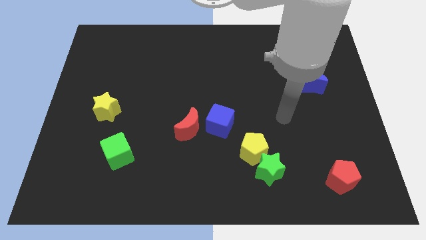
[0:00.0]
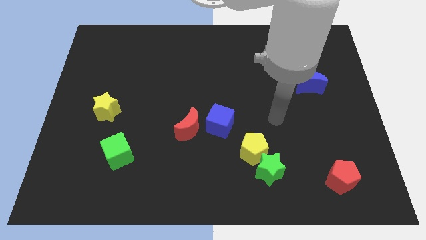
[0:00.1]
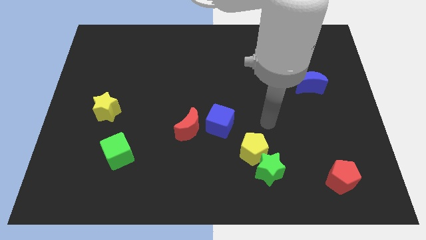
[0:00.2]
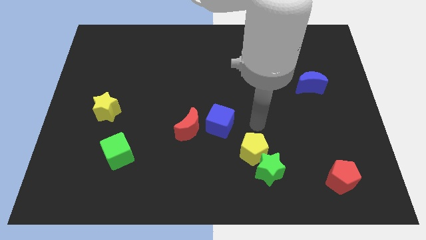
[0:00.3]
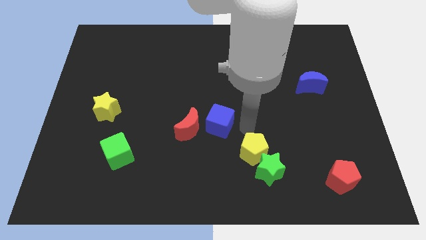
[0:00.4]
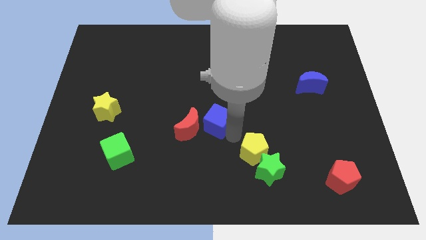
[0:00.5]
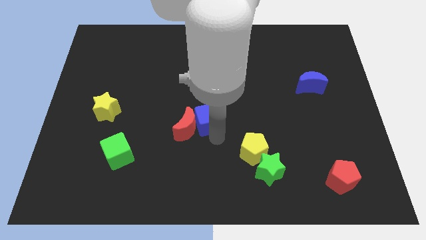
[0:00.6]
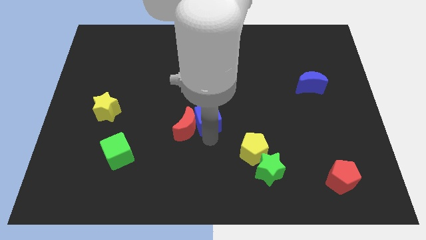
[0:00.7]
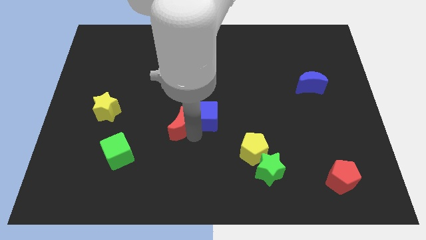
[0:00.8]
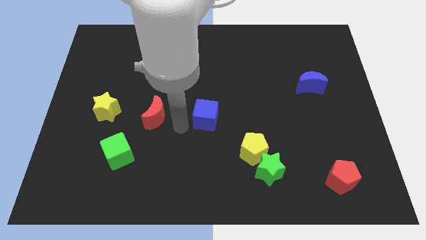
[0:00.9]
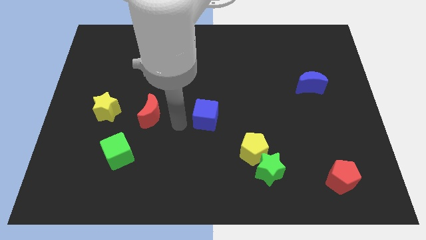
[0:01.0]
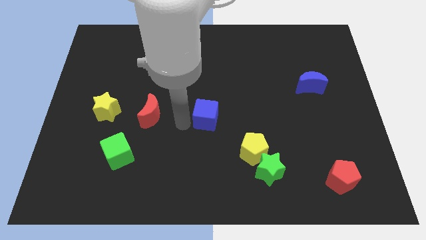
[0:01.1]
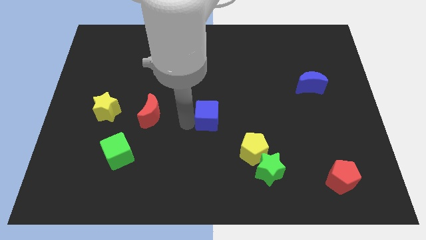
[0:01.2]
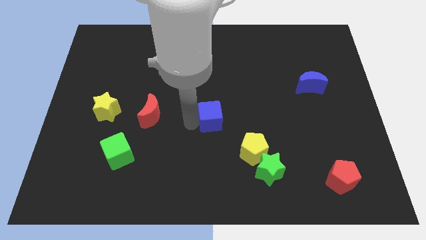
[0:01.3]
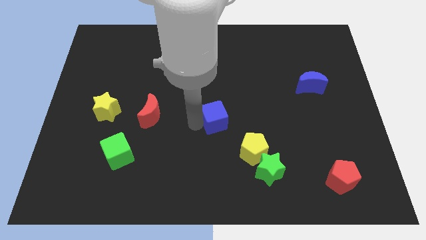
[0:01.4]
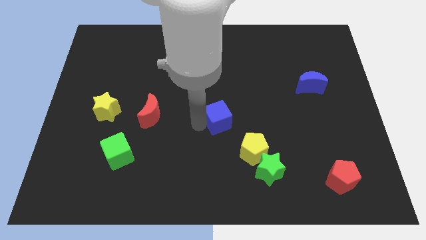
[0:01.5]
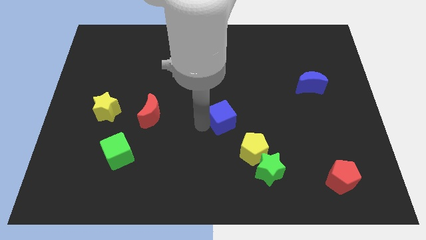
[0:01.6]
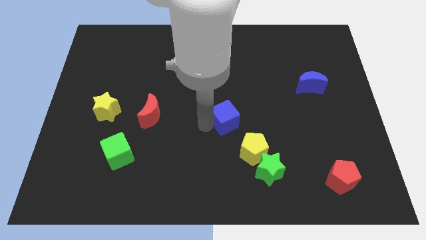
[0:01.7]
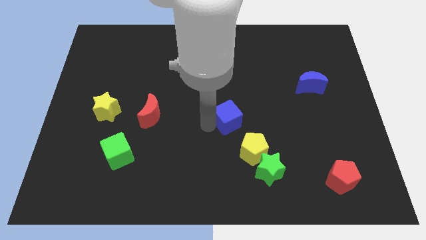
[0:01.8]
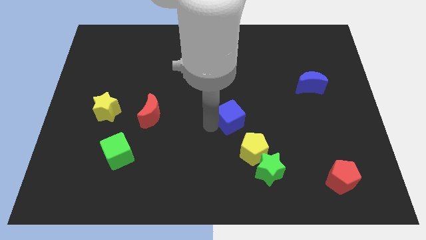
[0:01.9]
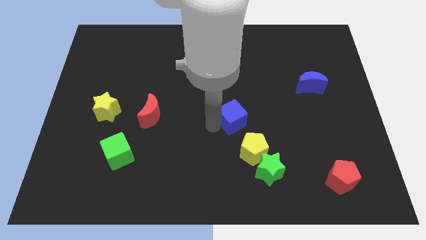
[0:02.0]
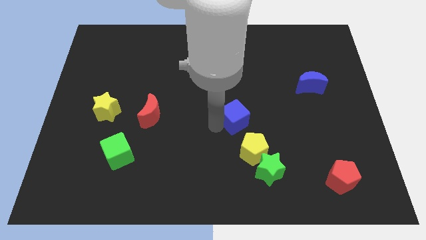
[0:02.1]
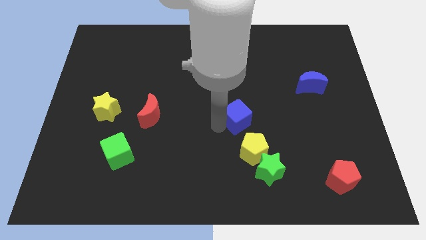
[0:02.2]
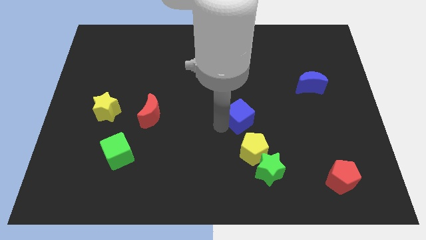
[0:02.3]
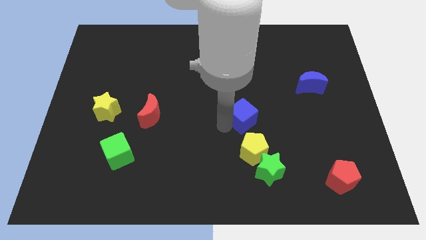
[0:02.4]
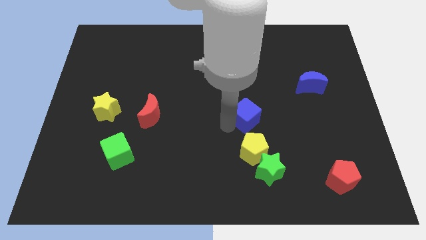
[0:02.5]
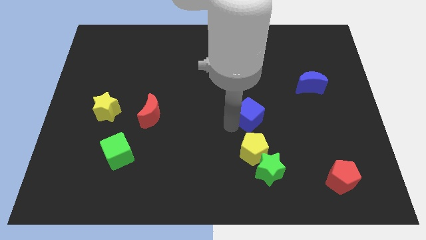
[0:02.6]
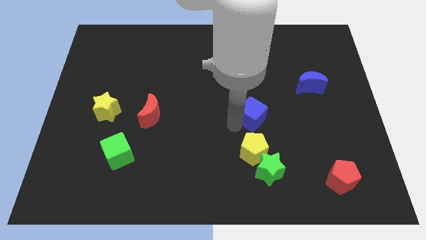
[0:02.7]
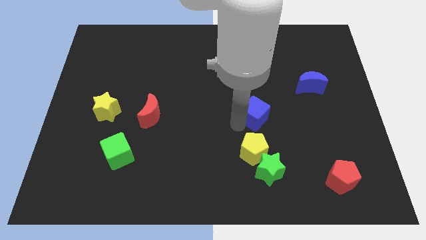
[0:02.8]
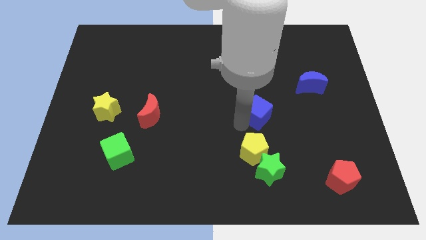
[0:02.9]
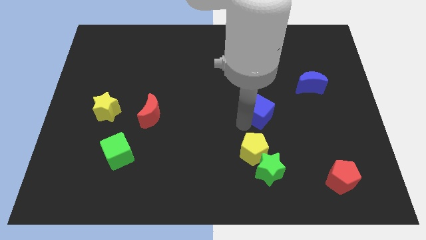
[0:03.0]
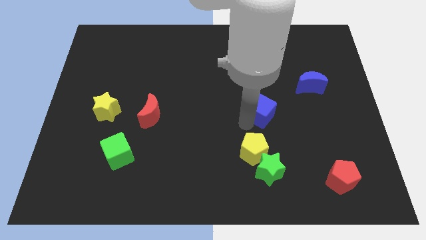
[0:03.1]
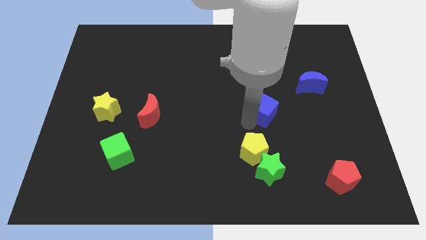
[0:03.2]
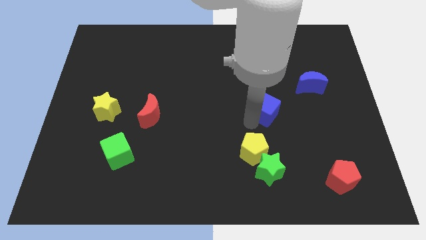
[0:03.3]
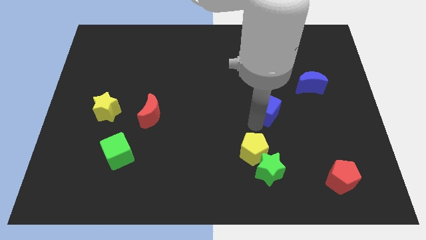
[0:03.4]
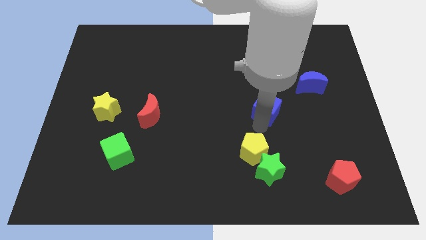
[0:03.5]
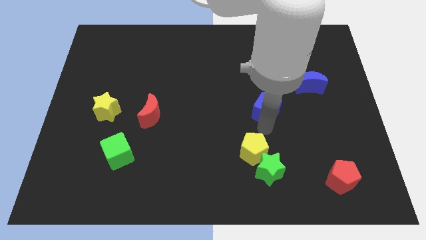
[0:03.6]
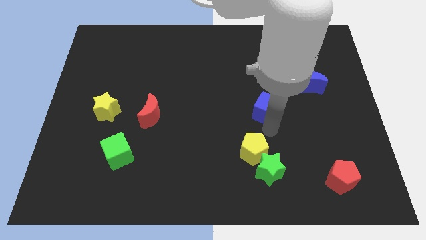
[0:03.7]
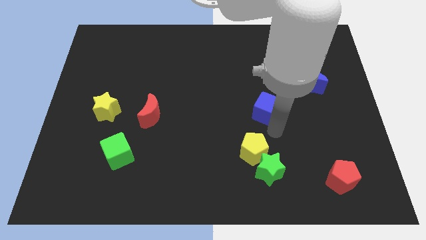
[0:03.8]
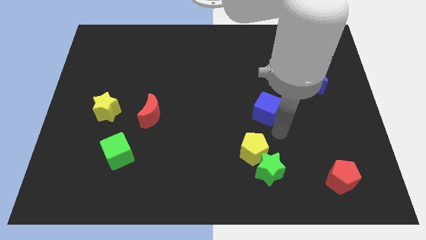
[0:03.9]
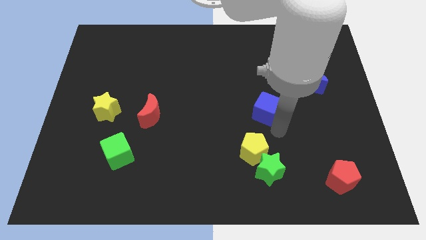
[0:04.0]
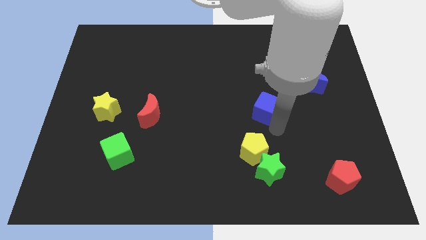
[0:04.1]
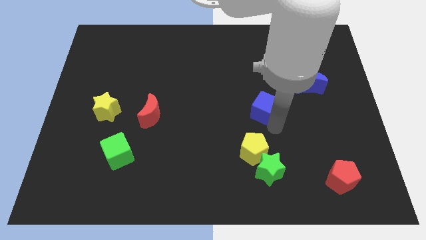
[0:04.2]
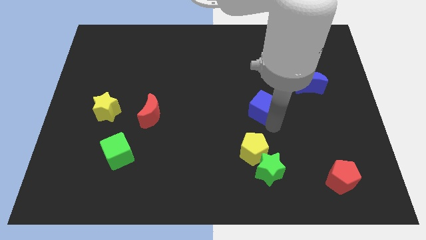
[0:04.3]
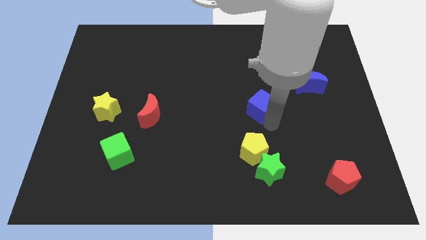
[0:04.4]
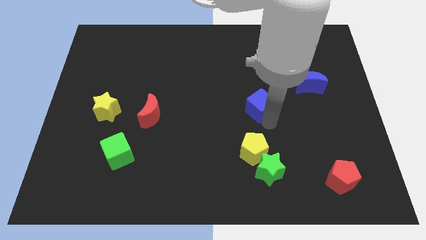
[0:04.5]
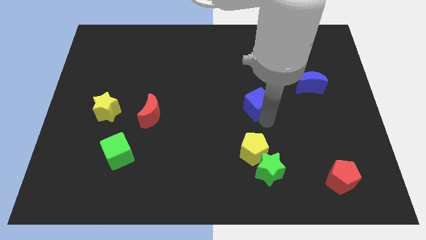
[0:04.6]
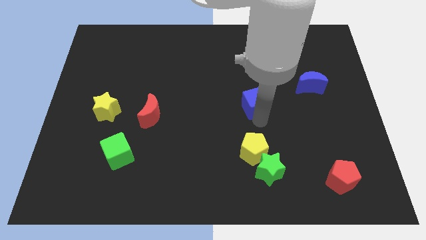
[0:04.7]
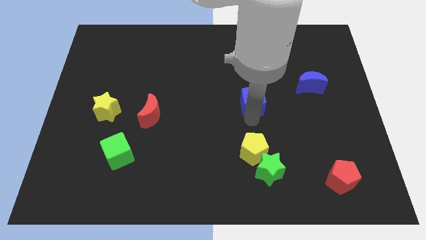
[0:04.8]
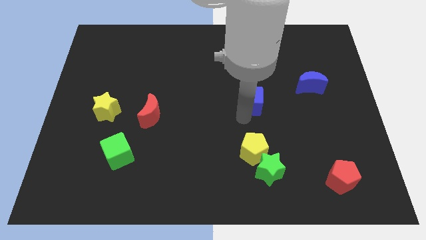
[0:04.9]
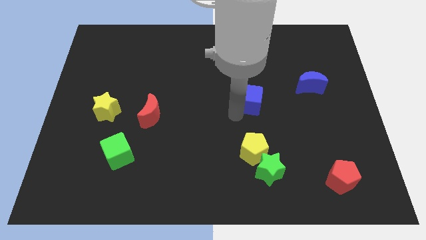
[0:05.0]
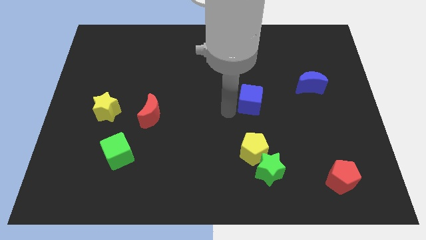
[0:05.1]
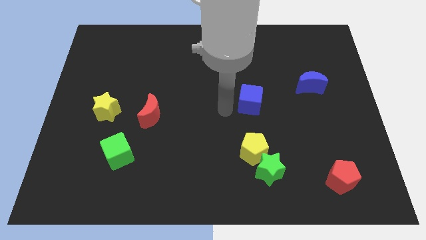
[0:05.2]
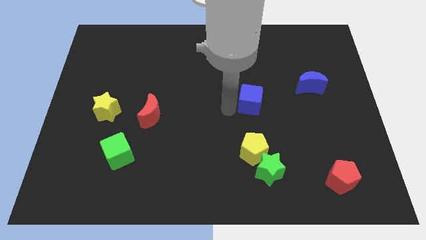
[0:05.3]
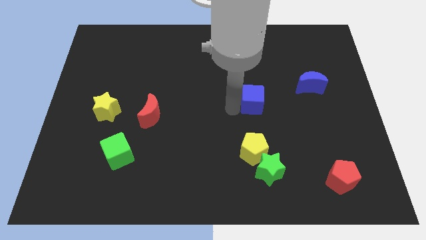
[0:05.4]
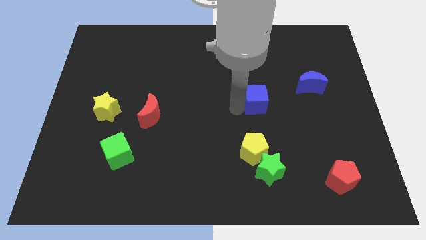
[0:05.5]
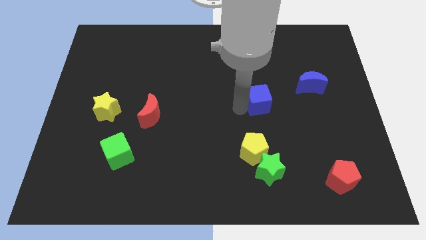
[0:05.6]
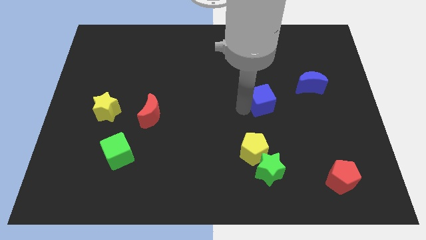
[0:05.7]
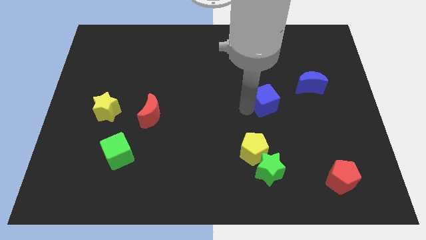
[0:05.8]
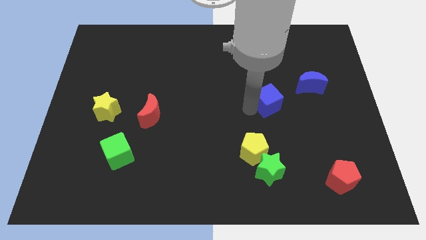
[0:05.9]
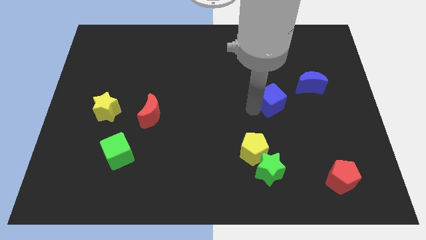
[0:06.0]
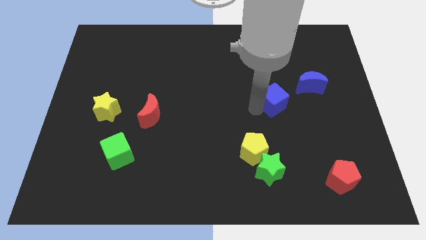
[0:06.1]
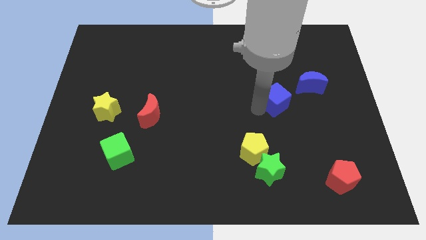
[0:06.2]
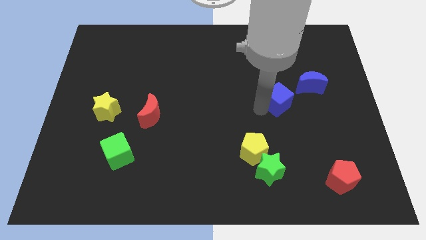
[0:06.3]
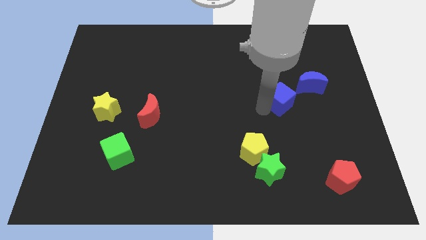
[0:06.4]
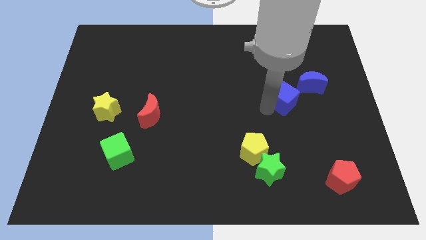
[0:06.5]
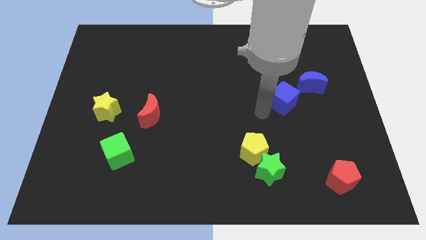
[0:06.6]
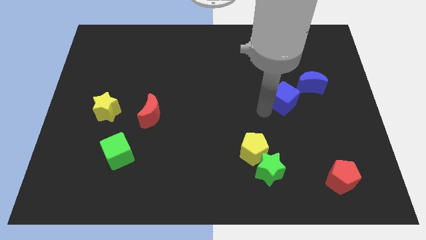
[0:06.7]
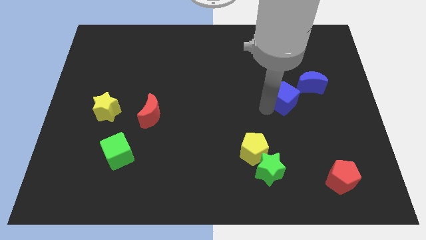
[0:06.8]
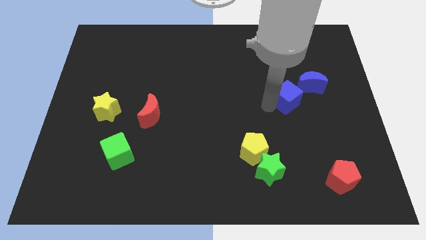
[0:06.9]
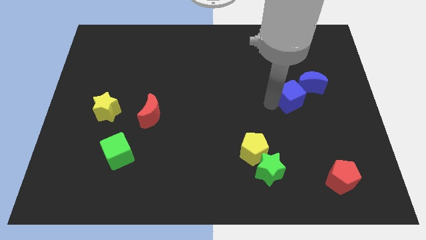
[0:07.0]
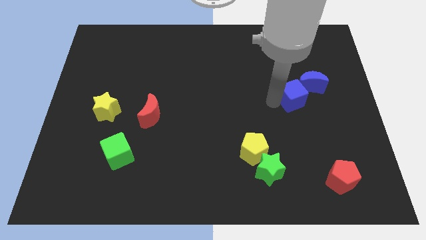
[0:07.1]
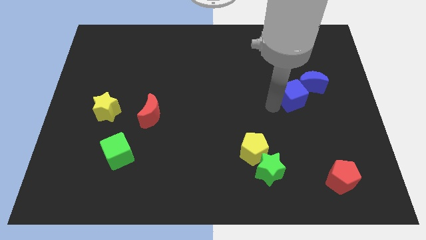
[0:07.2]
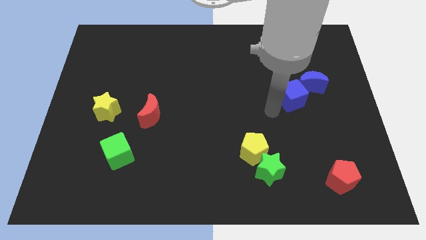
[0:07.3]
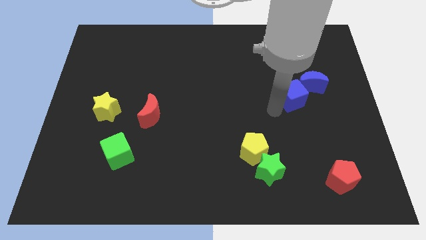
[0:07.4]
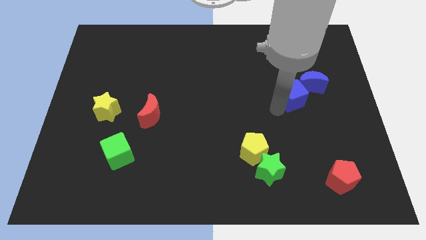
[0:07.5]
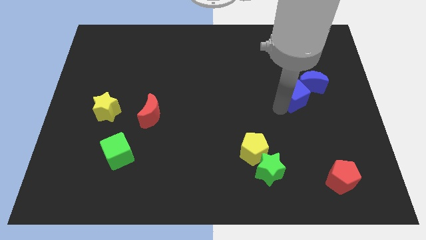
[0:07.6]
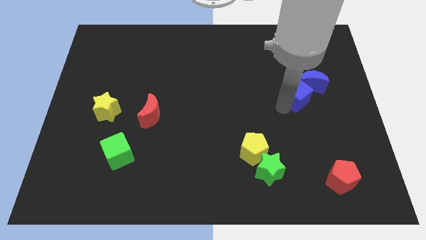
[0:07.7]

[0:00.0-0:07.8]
put the blue cube towards the blue moon
